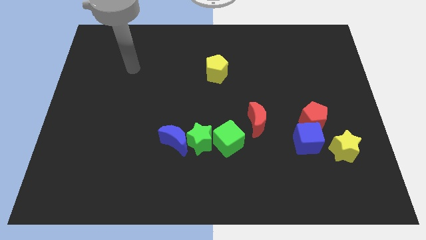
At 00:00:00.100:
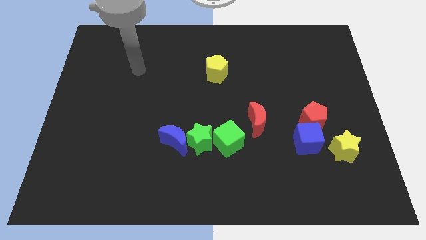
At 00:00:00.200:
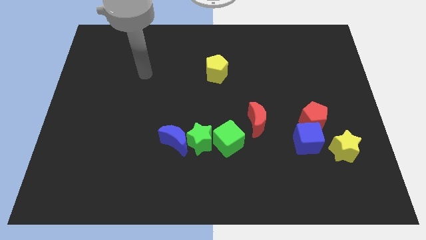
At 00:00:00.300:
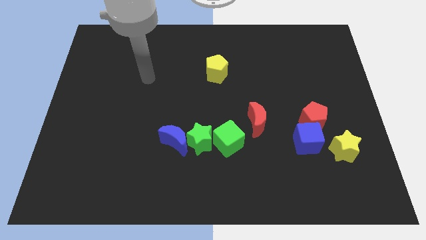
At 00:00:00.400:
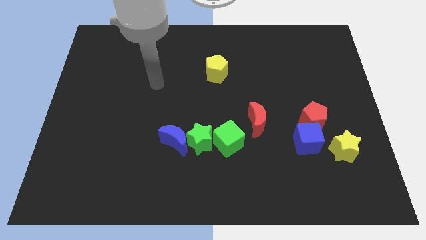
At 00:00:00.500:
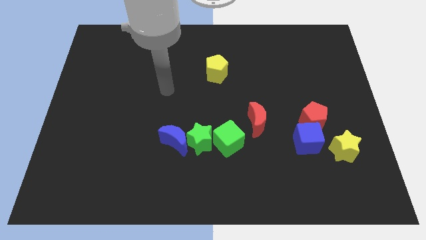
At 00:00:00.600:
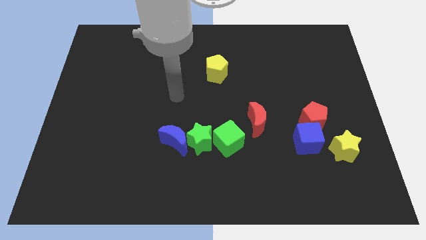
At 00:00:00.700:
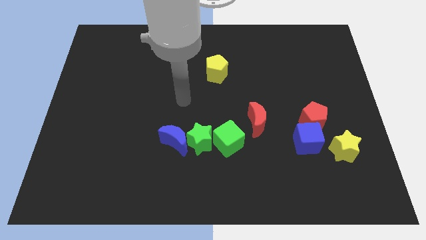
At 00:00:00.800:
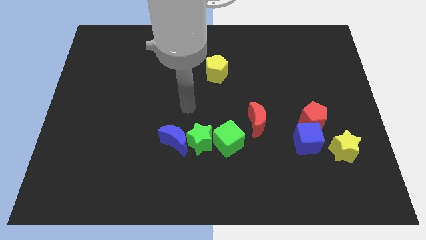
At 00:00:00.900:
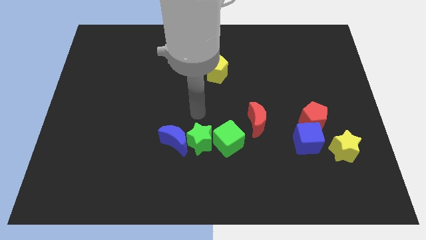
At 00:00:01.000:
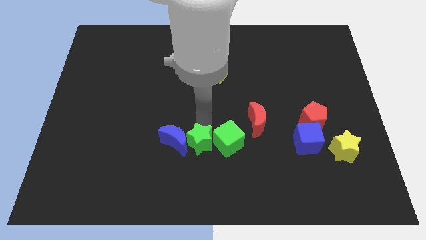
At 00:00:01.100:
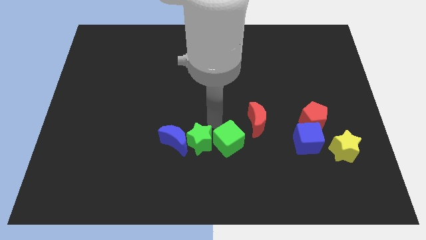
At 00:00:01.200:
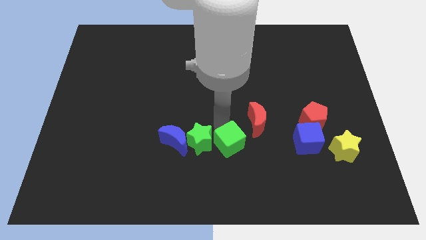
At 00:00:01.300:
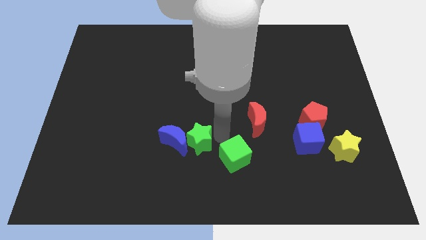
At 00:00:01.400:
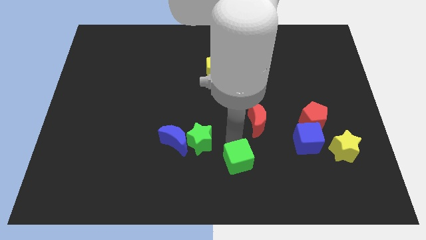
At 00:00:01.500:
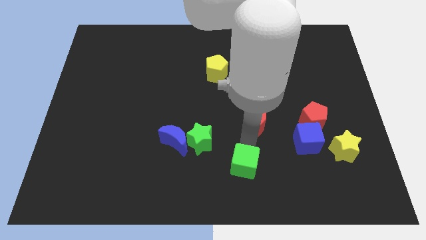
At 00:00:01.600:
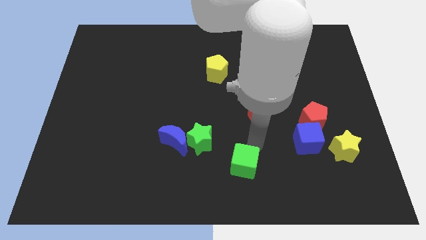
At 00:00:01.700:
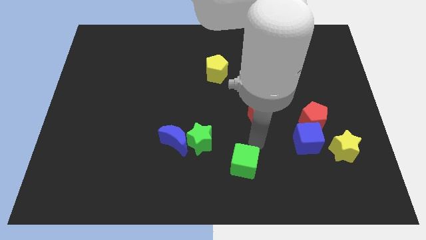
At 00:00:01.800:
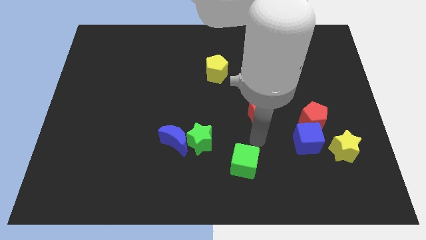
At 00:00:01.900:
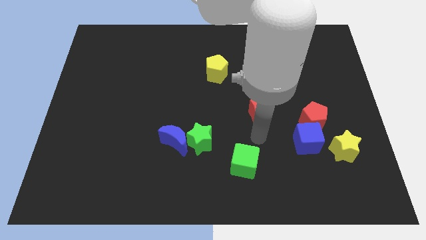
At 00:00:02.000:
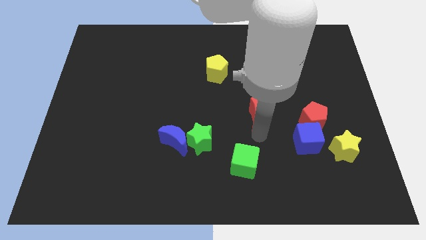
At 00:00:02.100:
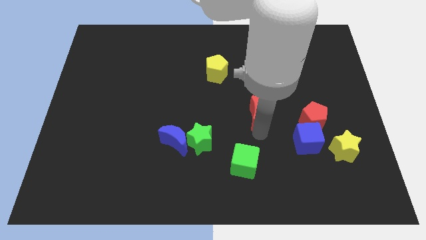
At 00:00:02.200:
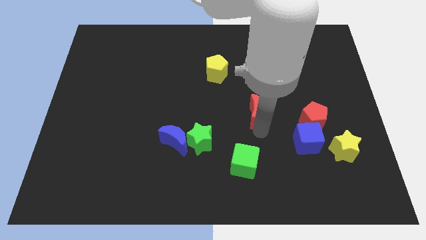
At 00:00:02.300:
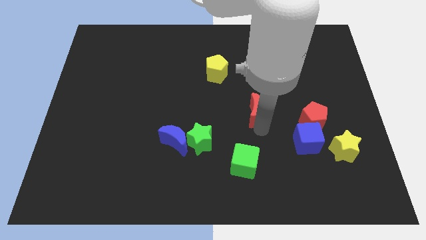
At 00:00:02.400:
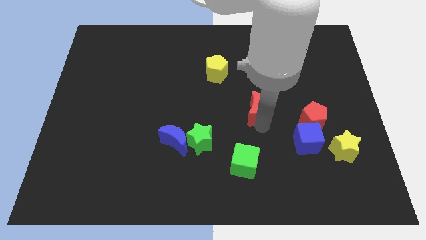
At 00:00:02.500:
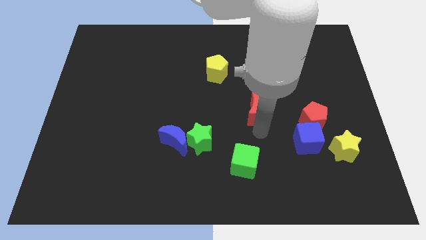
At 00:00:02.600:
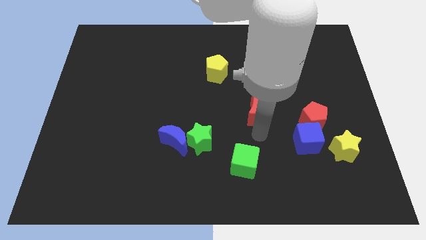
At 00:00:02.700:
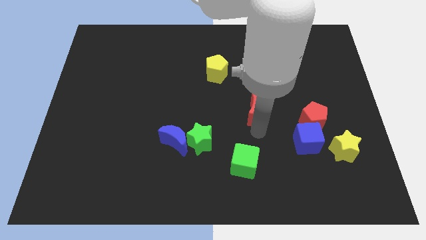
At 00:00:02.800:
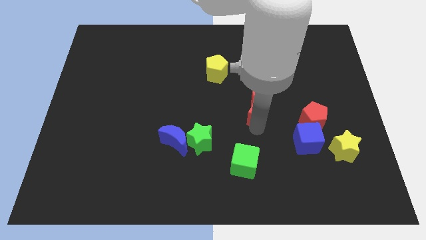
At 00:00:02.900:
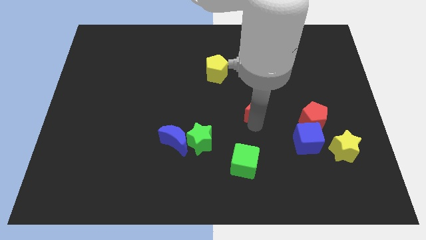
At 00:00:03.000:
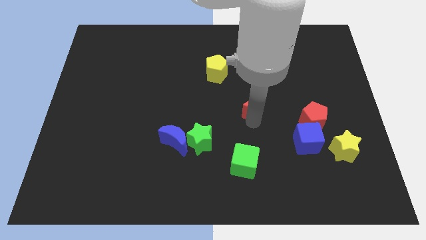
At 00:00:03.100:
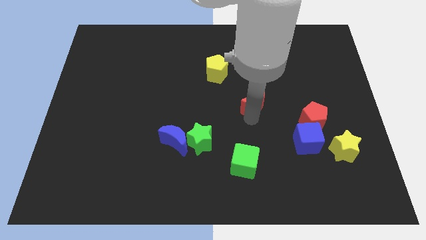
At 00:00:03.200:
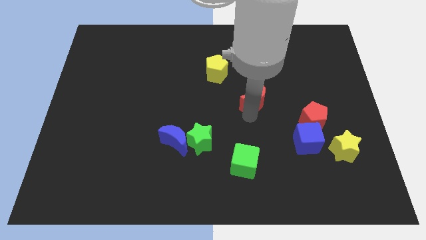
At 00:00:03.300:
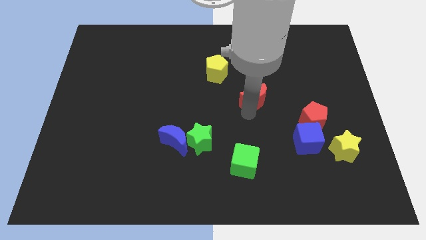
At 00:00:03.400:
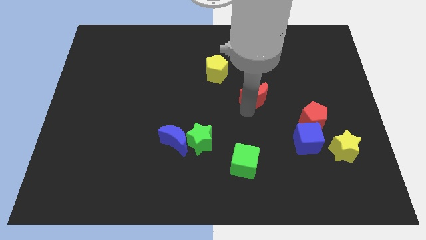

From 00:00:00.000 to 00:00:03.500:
slightly push the red moon up

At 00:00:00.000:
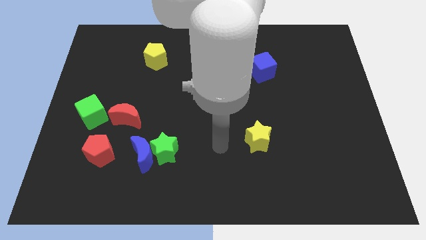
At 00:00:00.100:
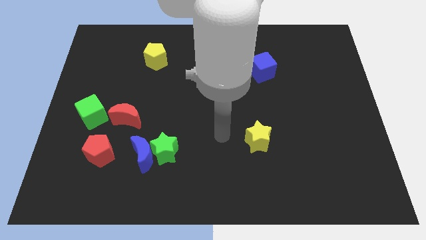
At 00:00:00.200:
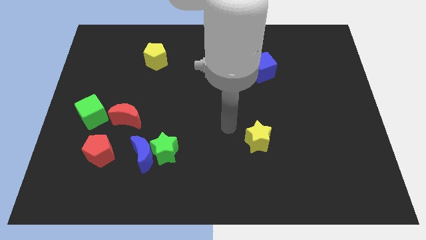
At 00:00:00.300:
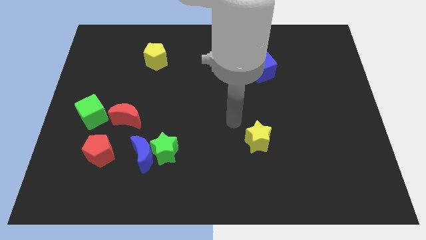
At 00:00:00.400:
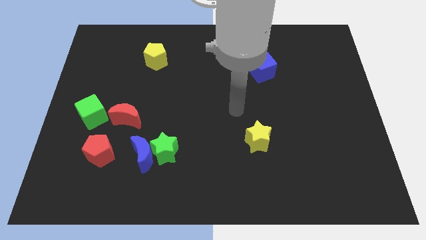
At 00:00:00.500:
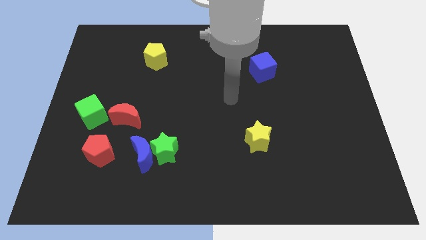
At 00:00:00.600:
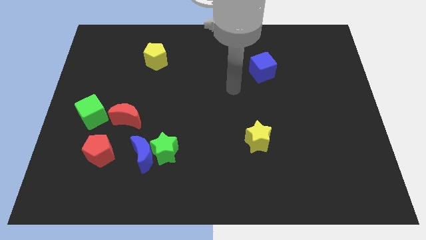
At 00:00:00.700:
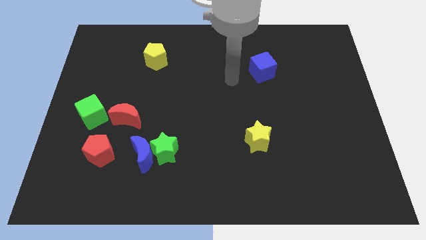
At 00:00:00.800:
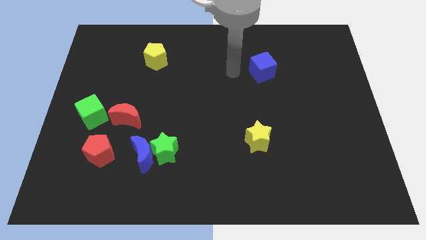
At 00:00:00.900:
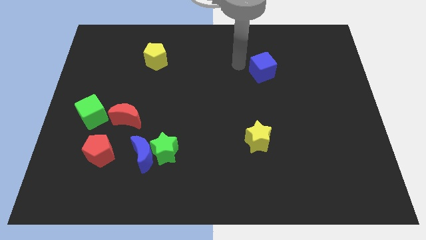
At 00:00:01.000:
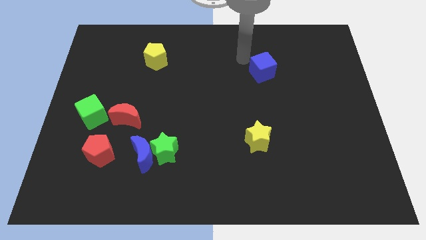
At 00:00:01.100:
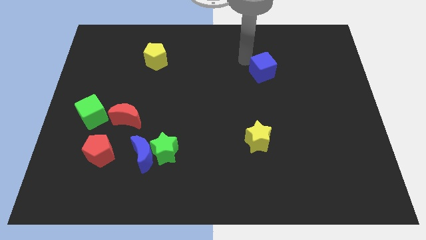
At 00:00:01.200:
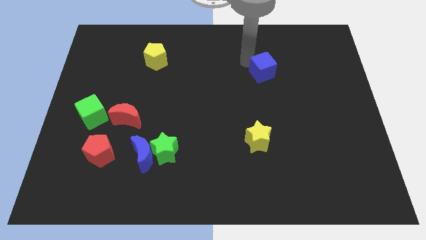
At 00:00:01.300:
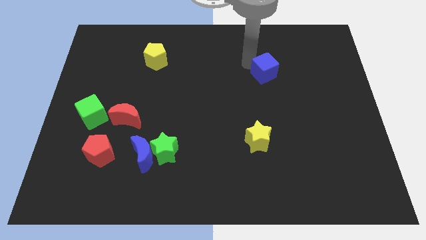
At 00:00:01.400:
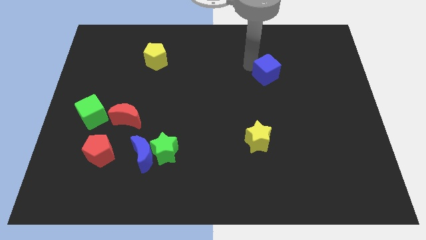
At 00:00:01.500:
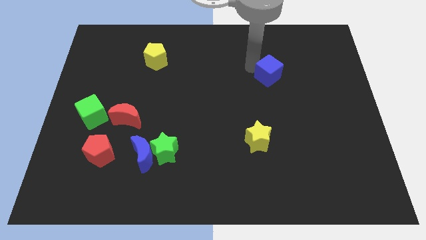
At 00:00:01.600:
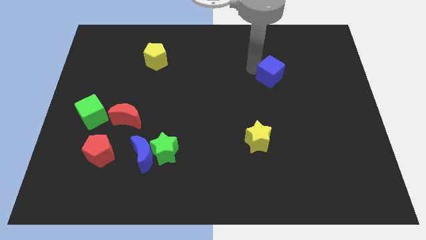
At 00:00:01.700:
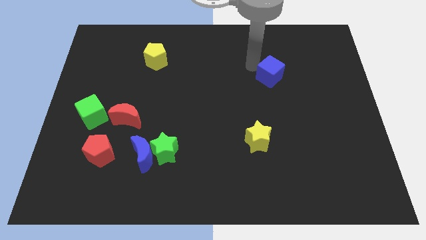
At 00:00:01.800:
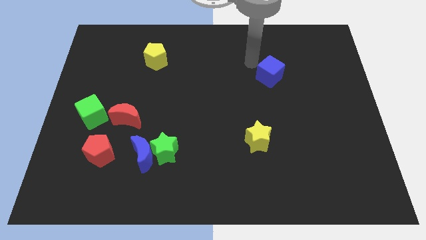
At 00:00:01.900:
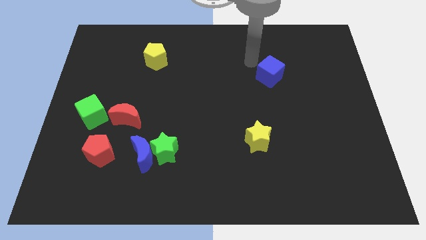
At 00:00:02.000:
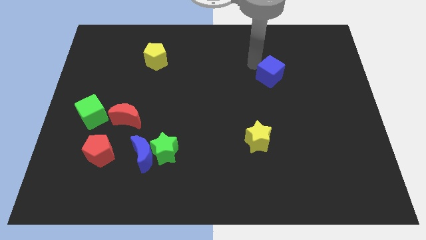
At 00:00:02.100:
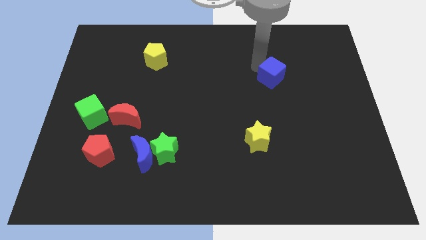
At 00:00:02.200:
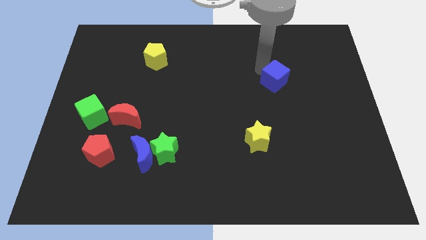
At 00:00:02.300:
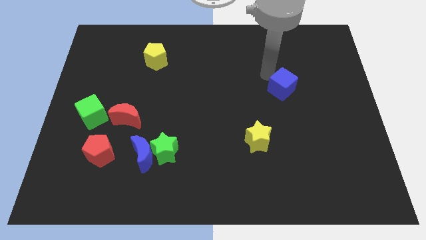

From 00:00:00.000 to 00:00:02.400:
push the blue cube down and then right slightly

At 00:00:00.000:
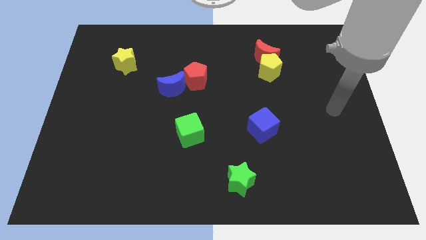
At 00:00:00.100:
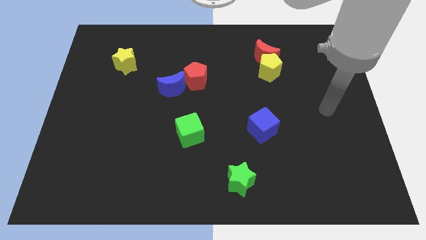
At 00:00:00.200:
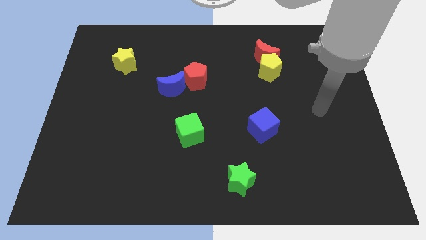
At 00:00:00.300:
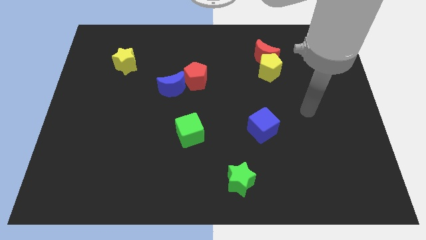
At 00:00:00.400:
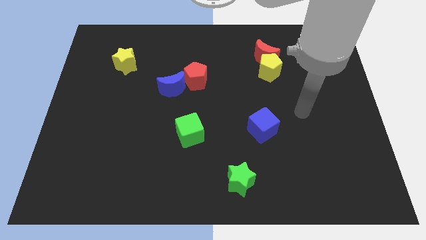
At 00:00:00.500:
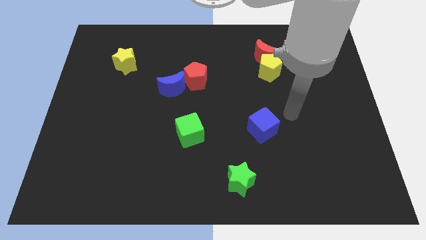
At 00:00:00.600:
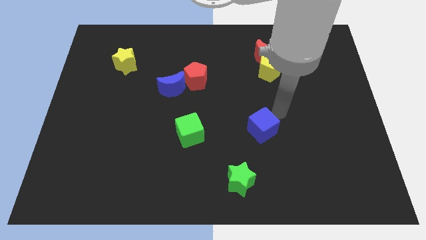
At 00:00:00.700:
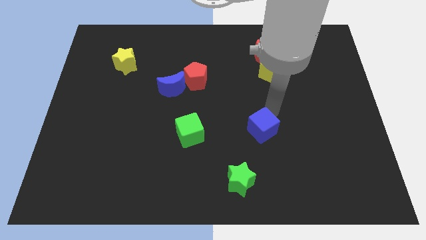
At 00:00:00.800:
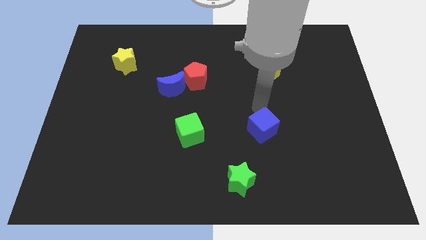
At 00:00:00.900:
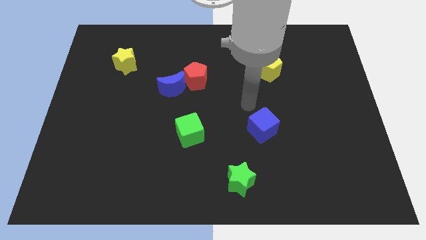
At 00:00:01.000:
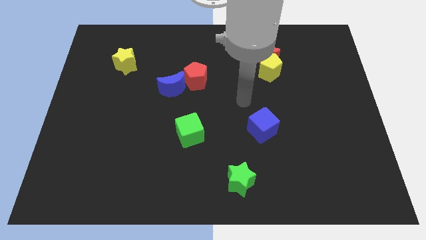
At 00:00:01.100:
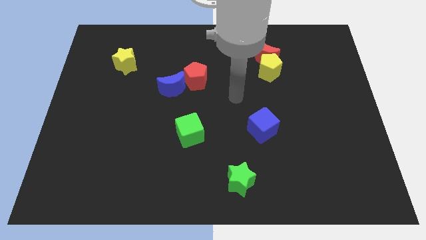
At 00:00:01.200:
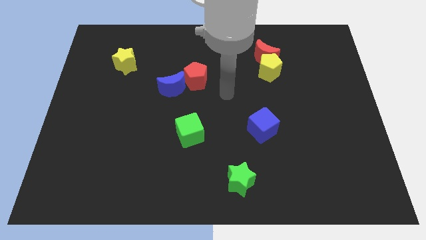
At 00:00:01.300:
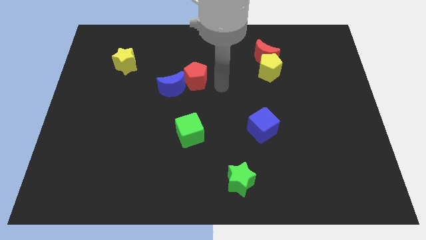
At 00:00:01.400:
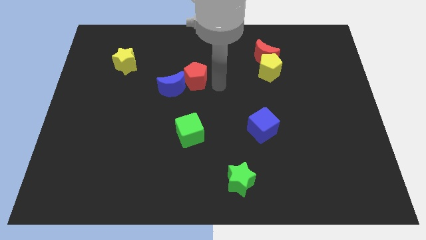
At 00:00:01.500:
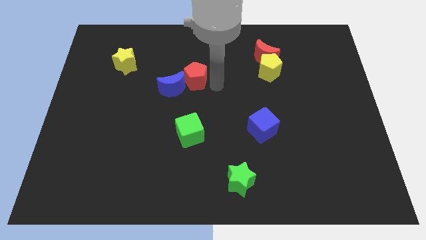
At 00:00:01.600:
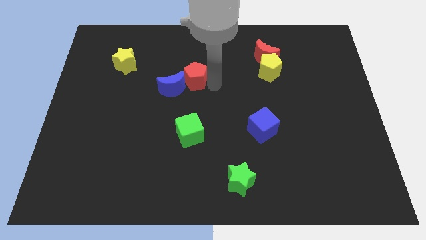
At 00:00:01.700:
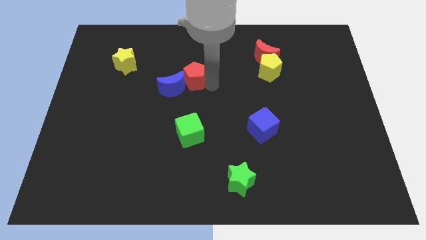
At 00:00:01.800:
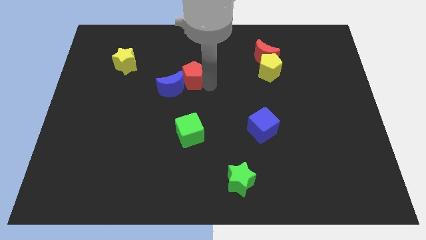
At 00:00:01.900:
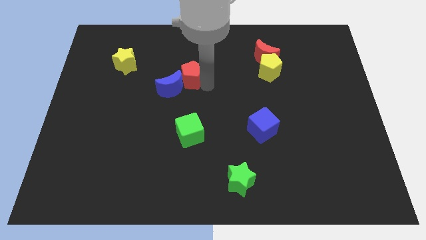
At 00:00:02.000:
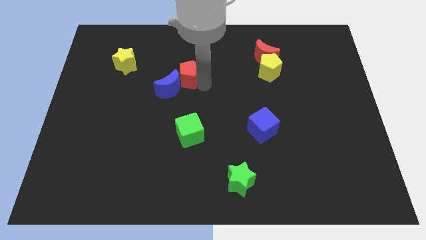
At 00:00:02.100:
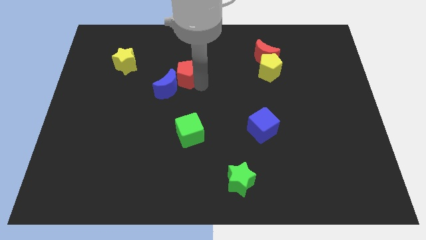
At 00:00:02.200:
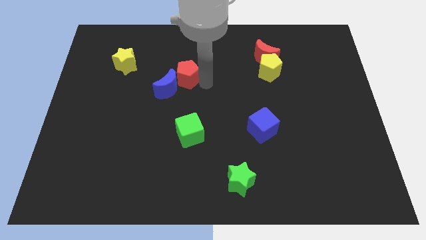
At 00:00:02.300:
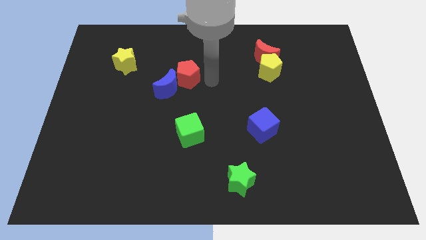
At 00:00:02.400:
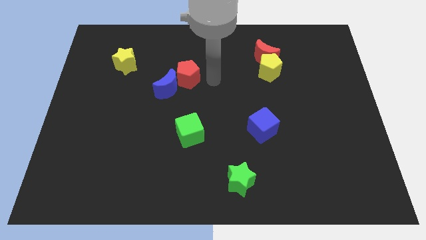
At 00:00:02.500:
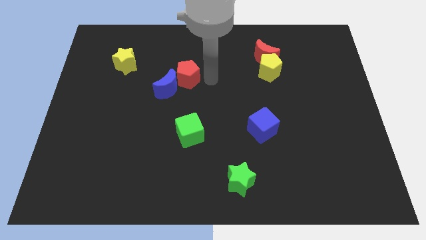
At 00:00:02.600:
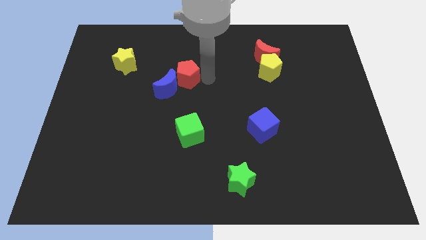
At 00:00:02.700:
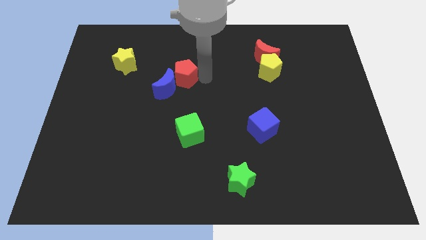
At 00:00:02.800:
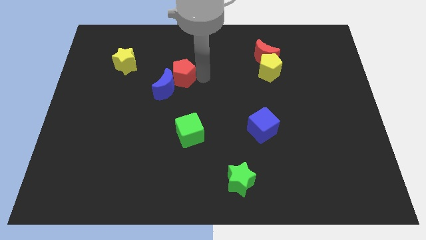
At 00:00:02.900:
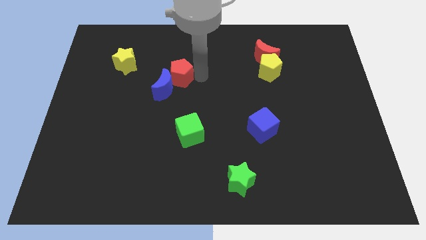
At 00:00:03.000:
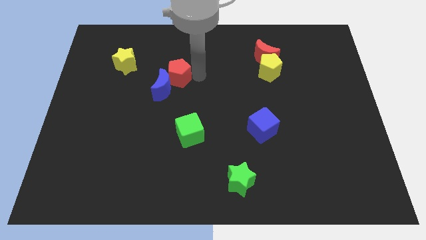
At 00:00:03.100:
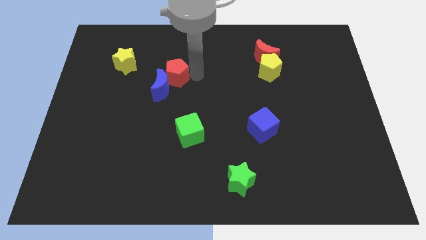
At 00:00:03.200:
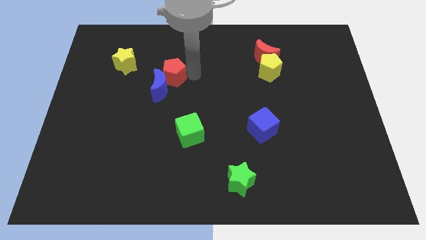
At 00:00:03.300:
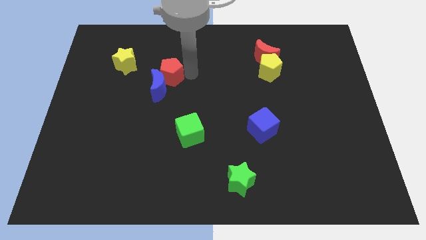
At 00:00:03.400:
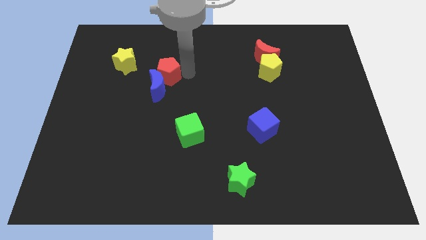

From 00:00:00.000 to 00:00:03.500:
slightly slide the red pentagon to the left
